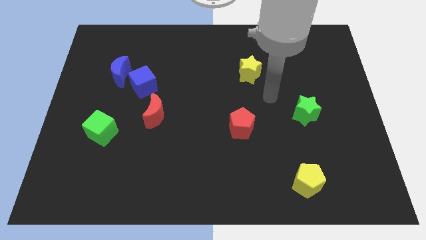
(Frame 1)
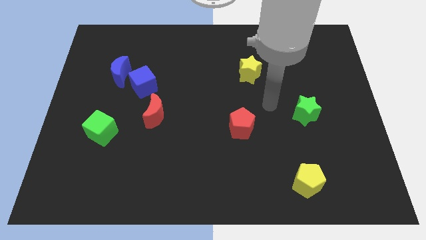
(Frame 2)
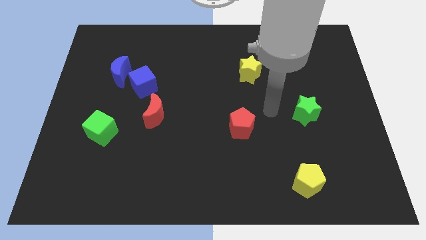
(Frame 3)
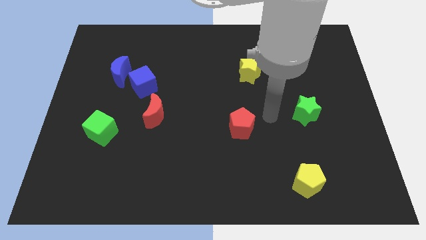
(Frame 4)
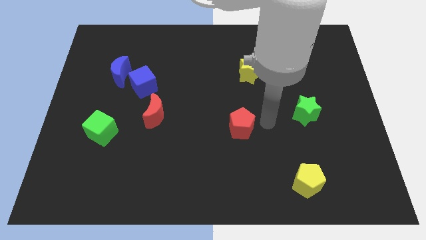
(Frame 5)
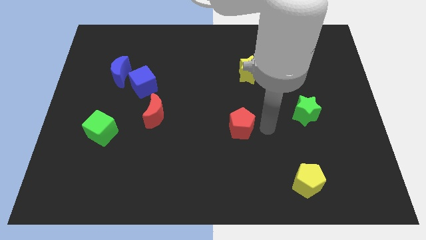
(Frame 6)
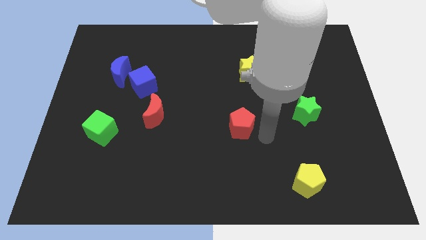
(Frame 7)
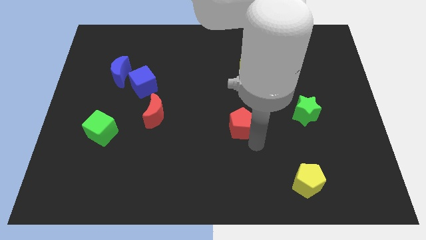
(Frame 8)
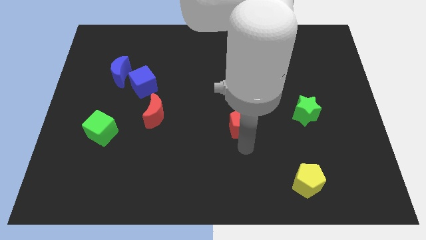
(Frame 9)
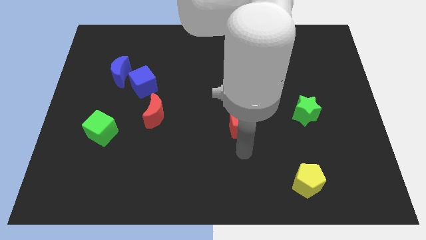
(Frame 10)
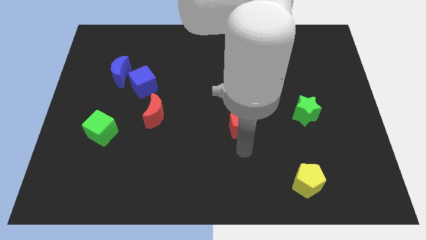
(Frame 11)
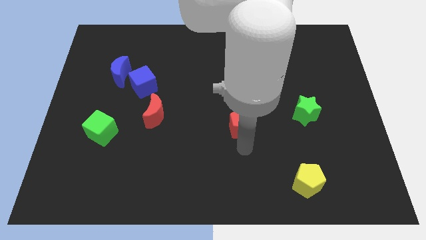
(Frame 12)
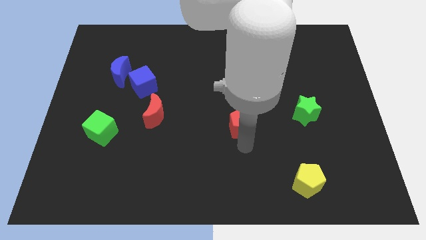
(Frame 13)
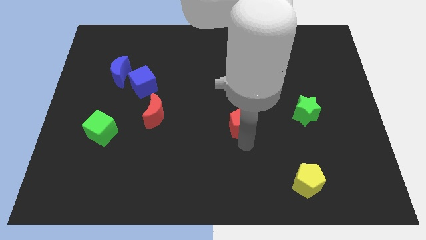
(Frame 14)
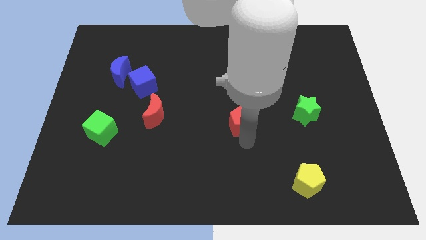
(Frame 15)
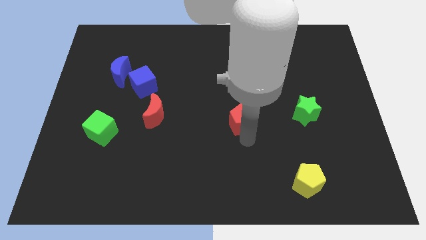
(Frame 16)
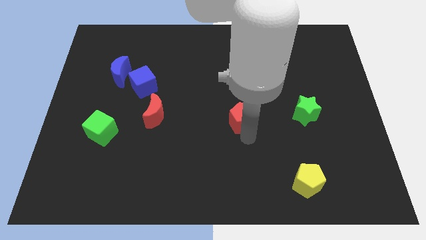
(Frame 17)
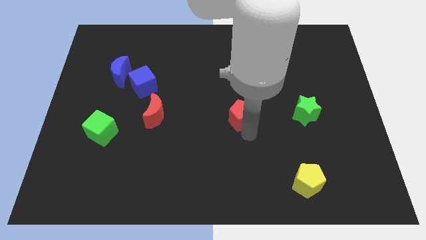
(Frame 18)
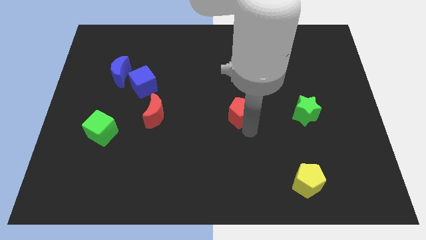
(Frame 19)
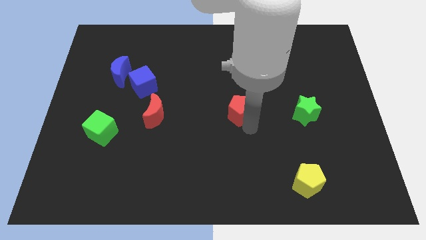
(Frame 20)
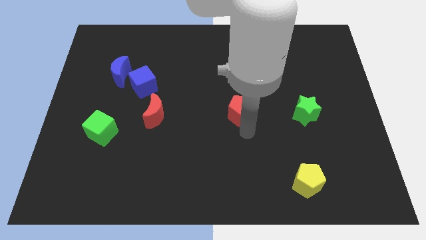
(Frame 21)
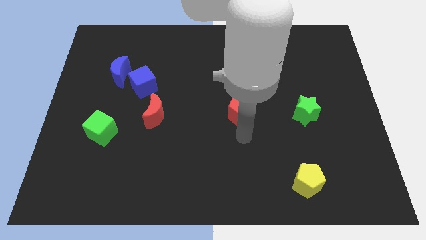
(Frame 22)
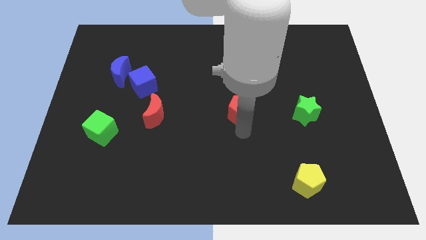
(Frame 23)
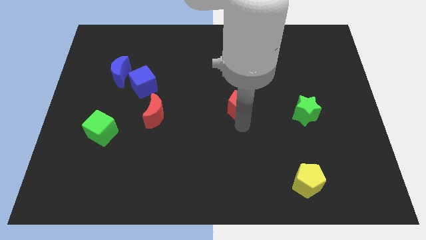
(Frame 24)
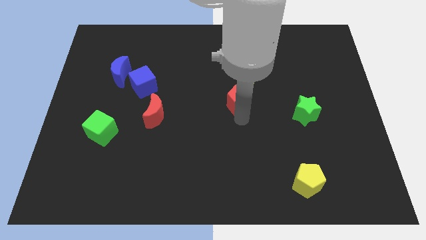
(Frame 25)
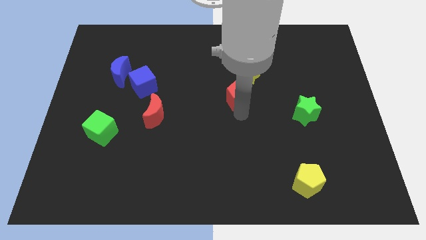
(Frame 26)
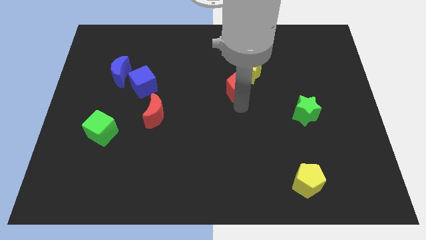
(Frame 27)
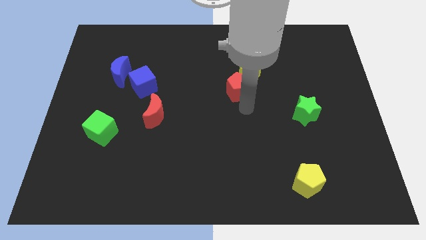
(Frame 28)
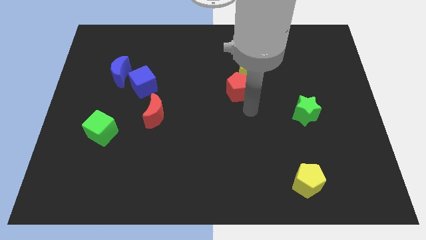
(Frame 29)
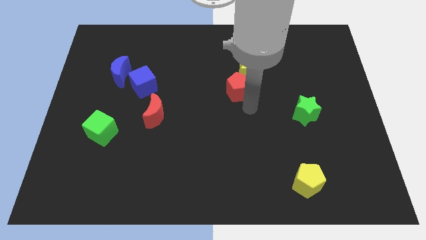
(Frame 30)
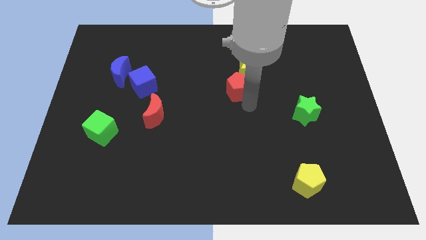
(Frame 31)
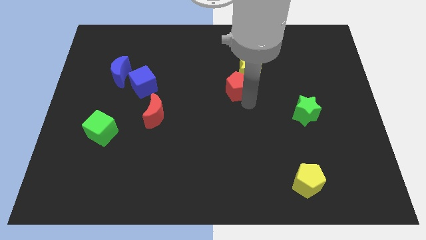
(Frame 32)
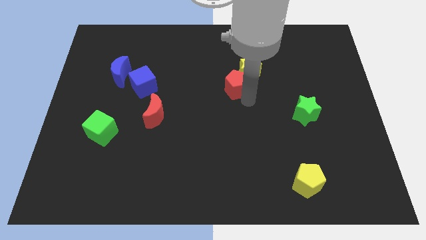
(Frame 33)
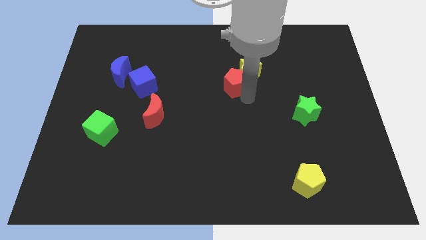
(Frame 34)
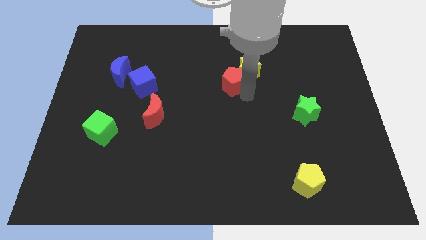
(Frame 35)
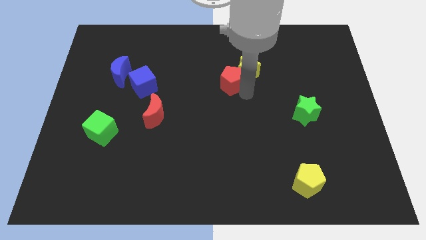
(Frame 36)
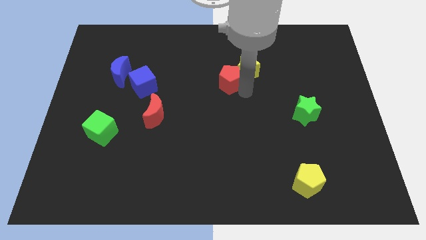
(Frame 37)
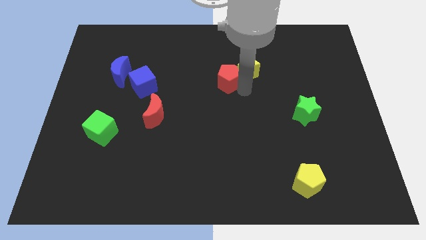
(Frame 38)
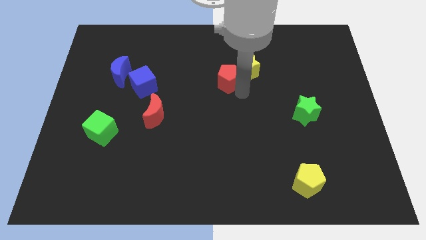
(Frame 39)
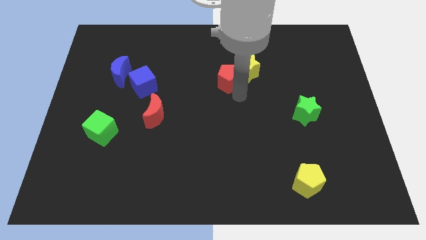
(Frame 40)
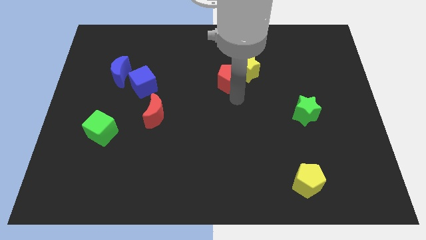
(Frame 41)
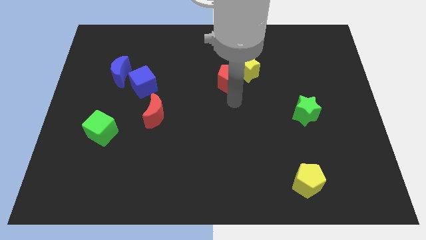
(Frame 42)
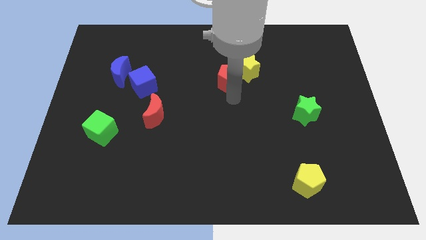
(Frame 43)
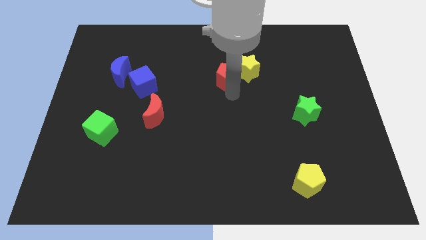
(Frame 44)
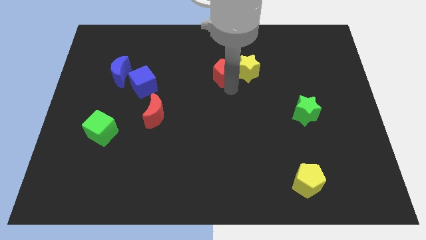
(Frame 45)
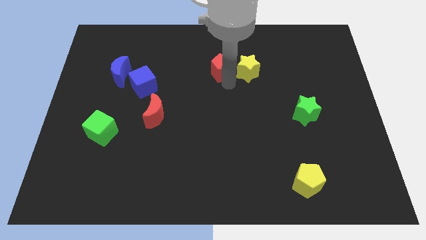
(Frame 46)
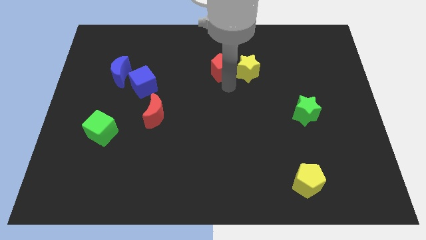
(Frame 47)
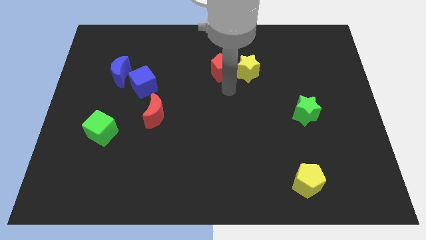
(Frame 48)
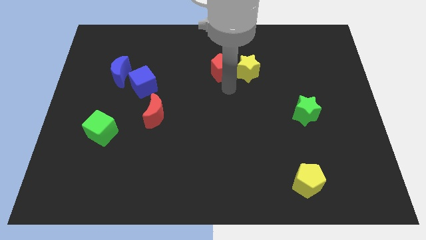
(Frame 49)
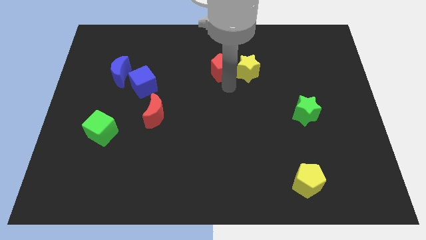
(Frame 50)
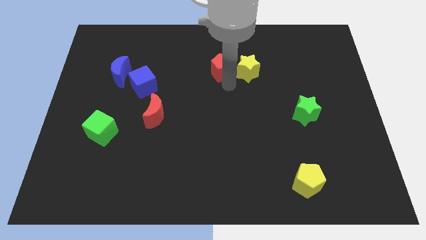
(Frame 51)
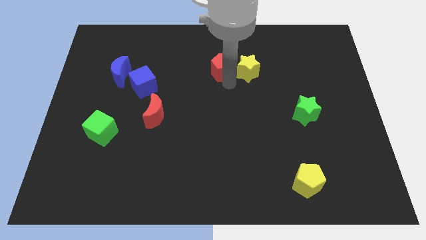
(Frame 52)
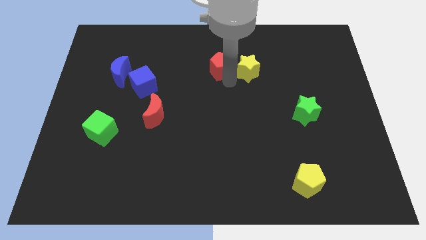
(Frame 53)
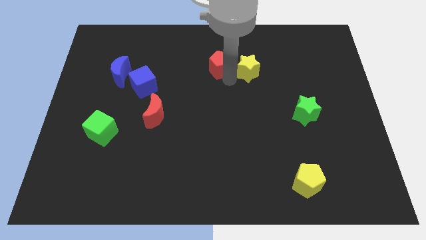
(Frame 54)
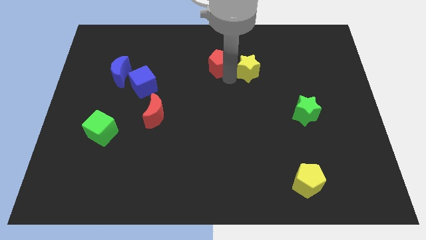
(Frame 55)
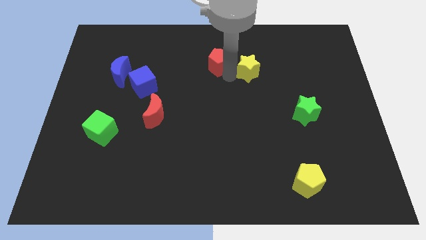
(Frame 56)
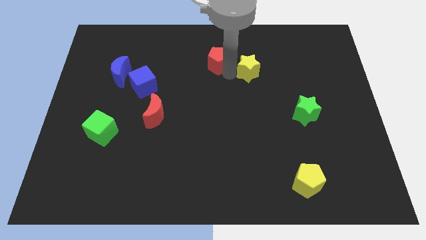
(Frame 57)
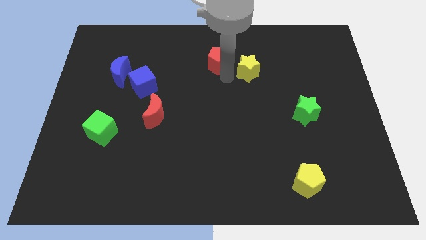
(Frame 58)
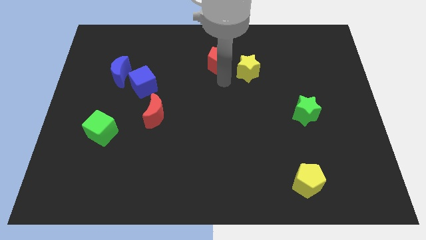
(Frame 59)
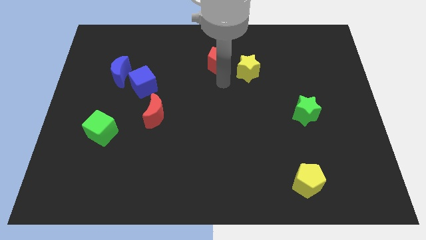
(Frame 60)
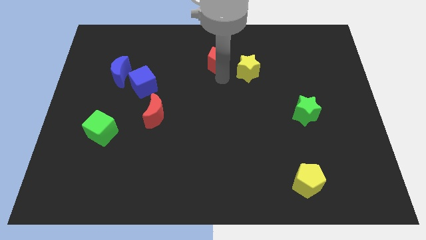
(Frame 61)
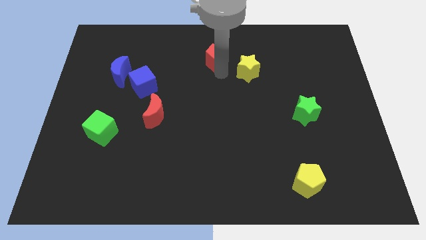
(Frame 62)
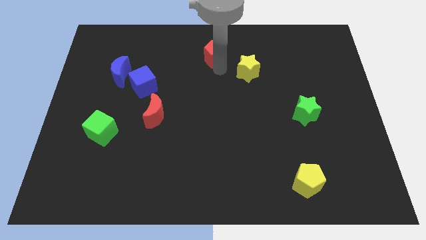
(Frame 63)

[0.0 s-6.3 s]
put the red pentagon to the top

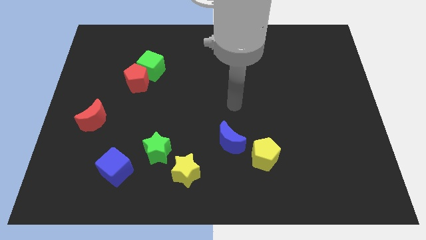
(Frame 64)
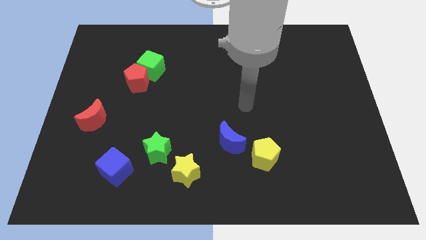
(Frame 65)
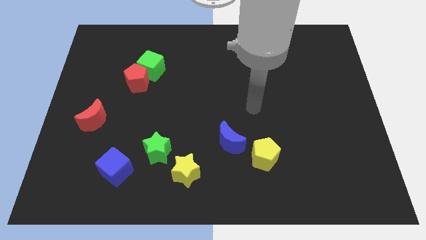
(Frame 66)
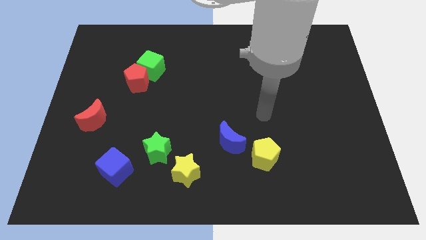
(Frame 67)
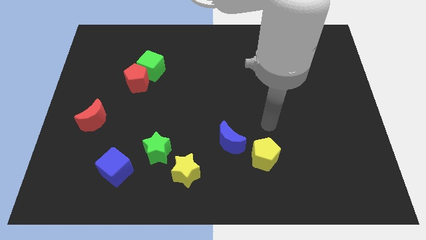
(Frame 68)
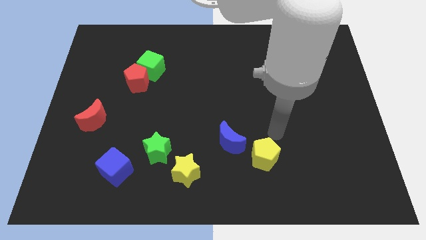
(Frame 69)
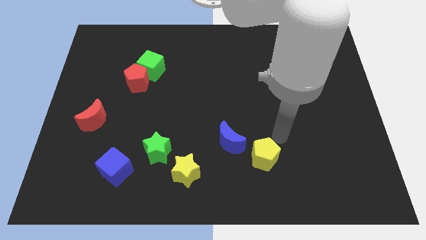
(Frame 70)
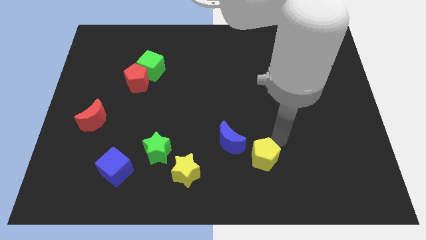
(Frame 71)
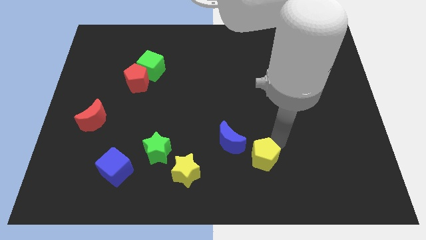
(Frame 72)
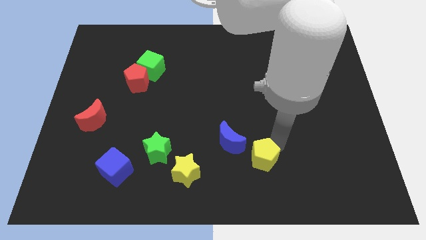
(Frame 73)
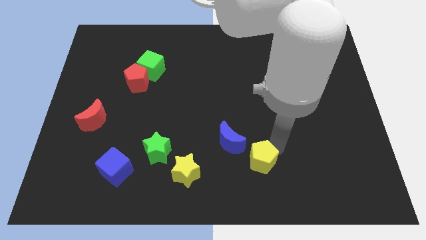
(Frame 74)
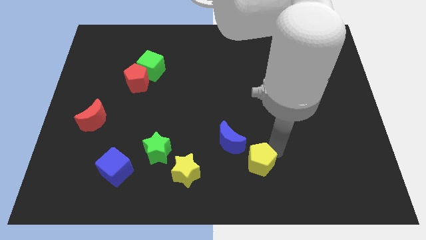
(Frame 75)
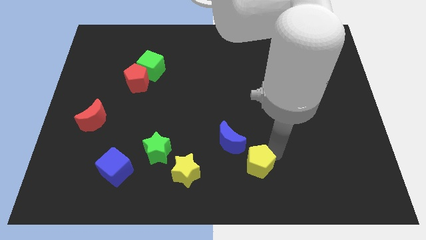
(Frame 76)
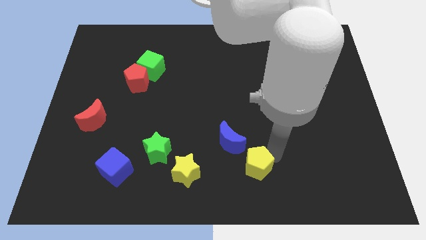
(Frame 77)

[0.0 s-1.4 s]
slide the yellow pentagon to the bottom
